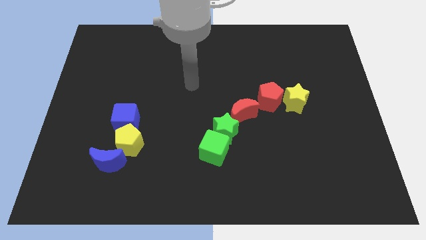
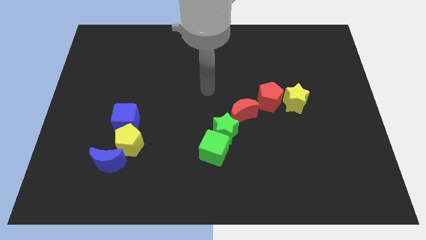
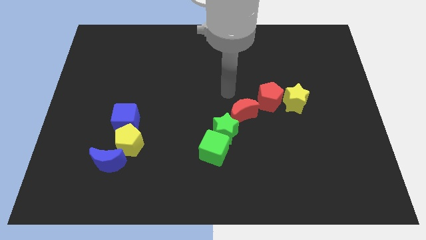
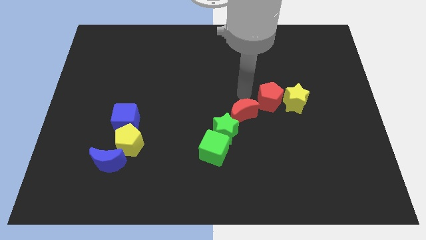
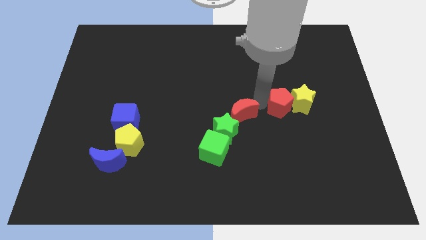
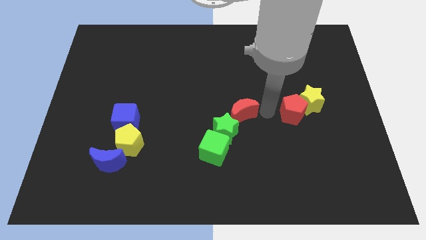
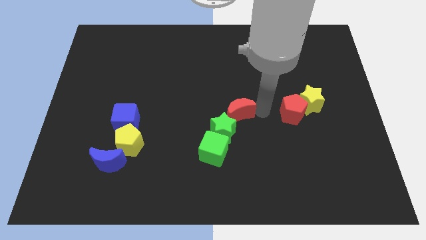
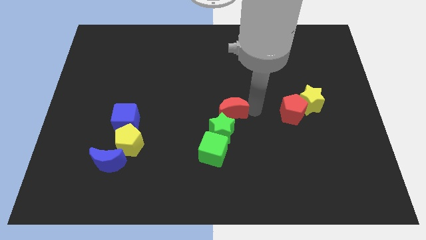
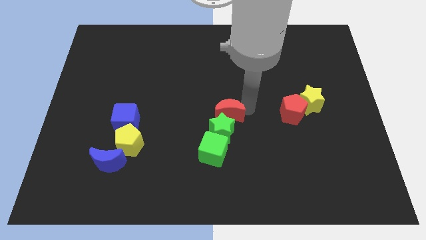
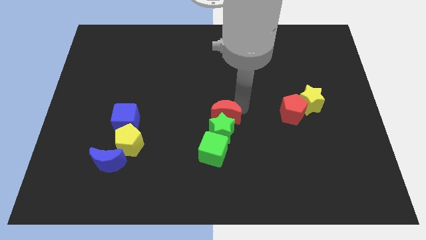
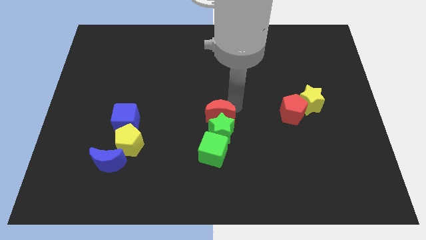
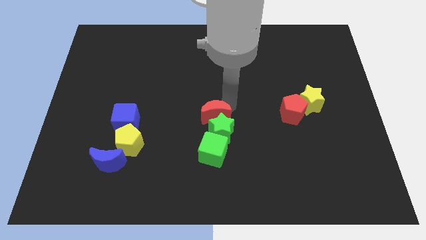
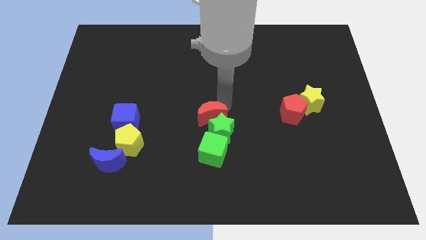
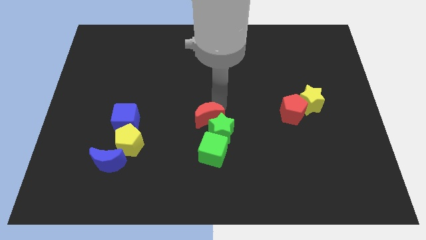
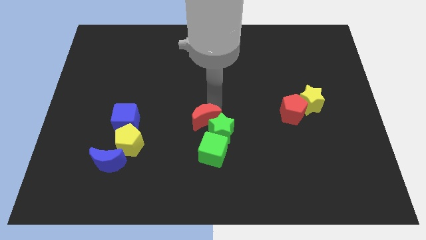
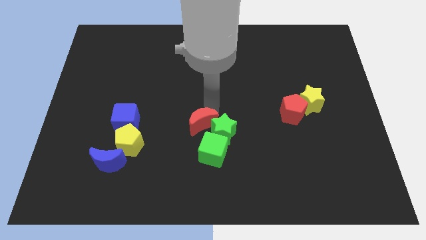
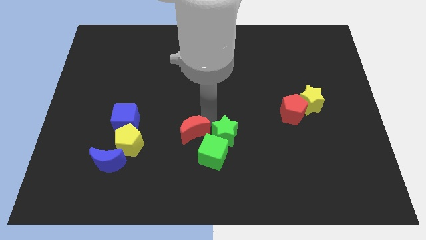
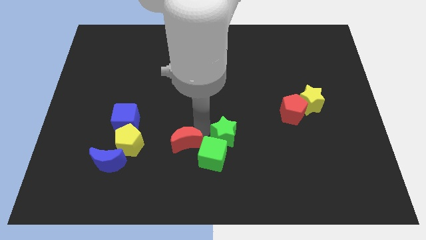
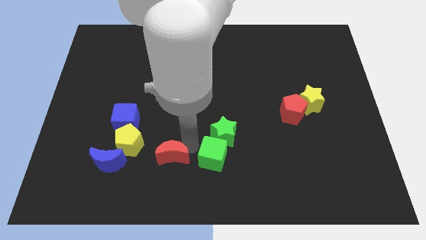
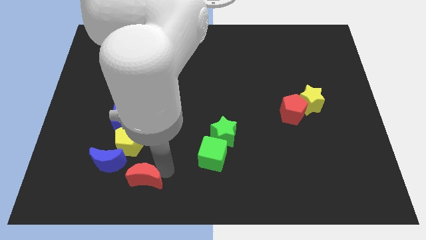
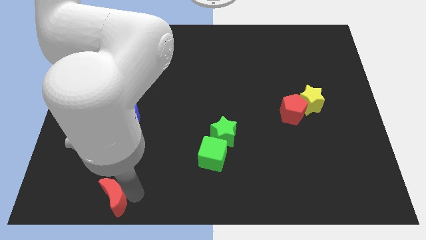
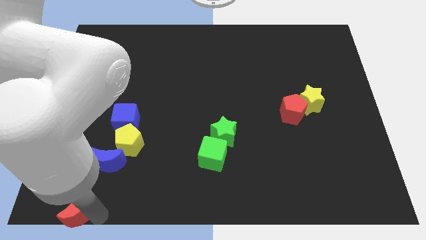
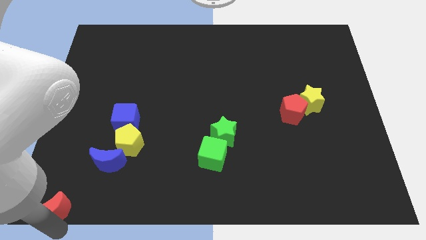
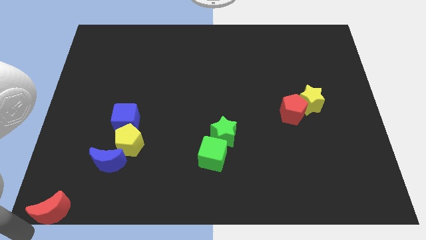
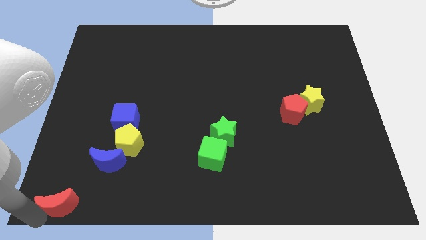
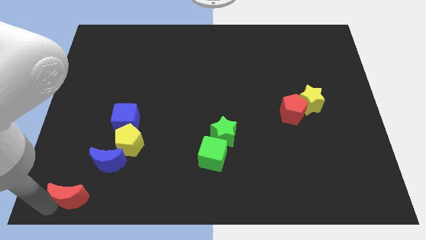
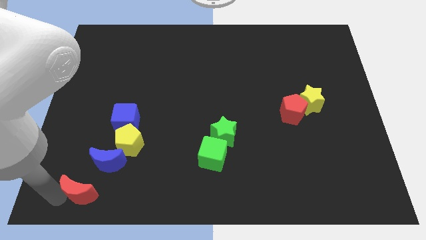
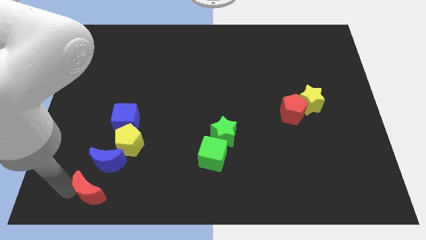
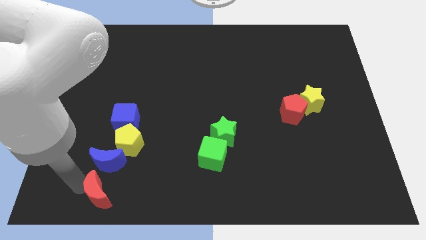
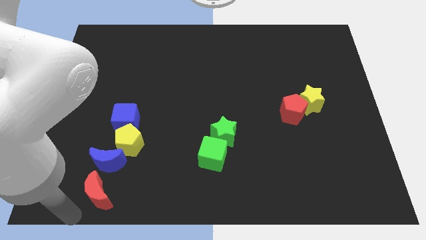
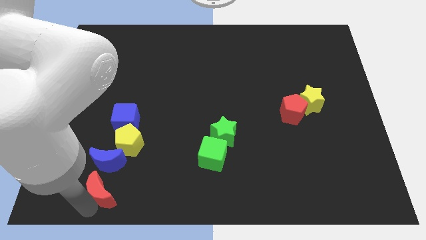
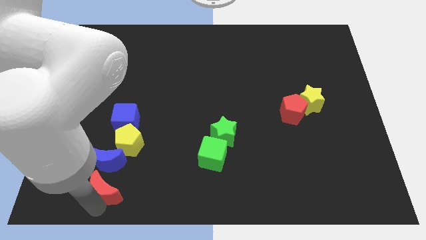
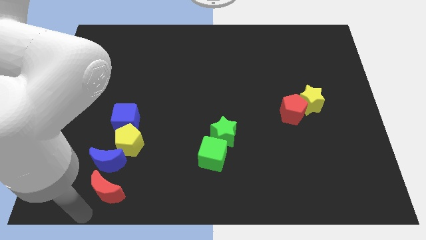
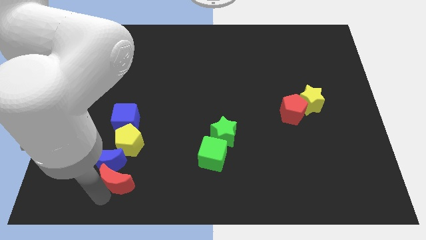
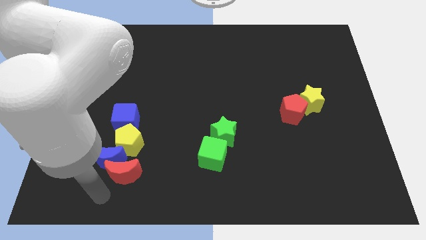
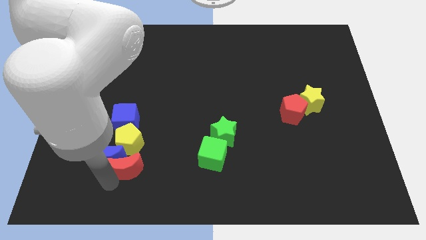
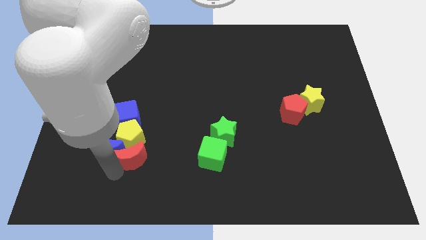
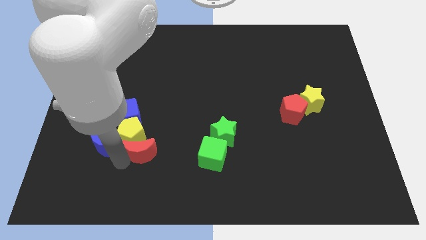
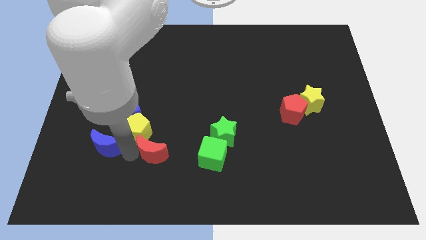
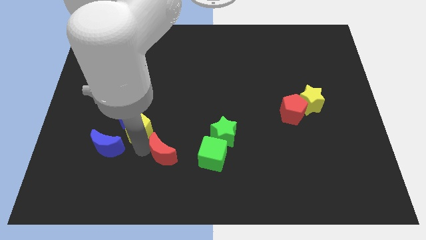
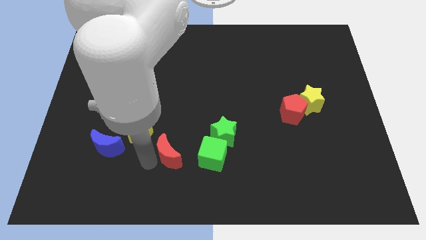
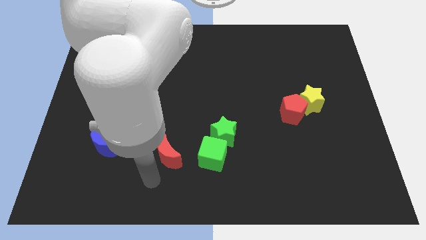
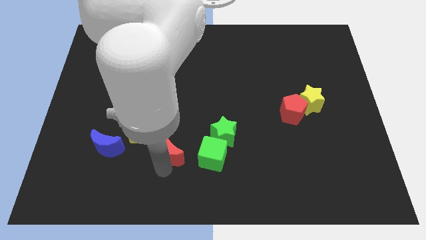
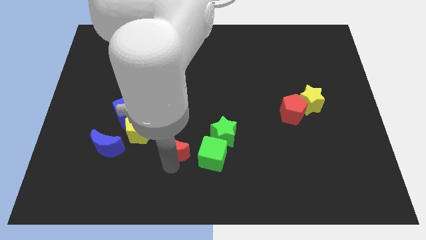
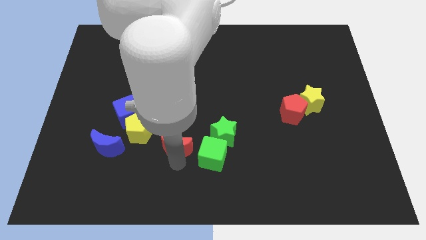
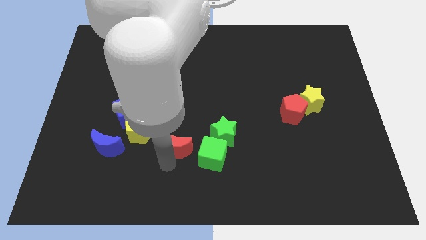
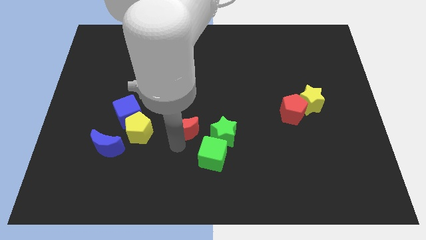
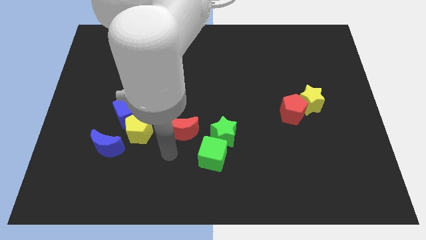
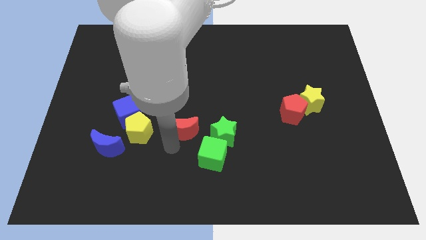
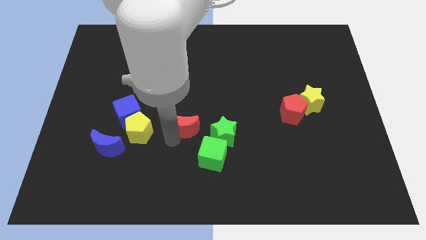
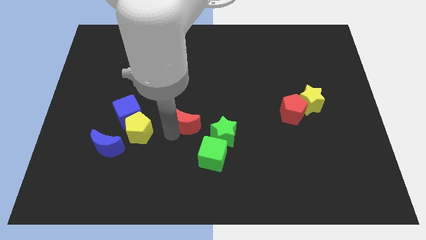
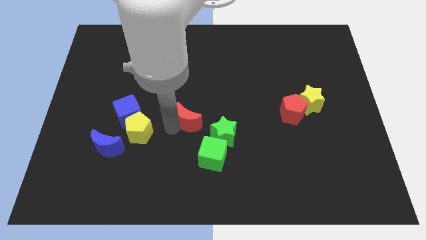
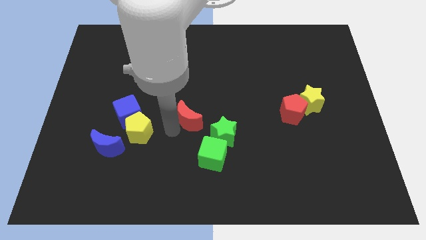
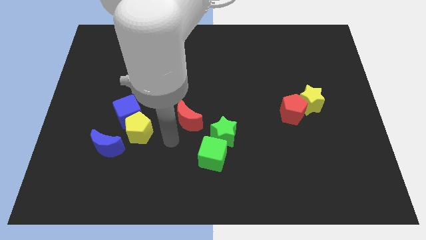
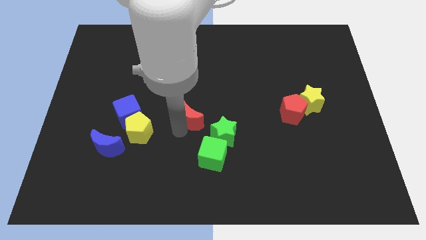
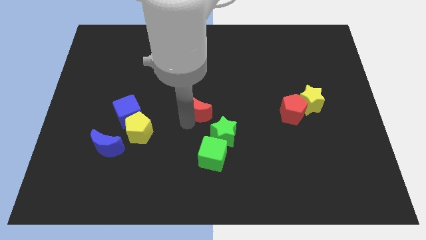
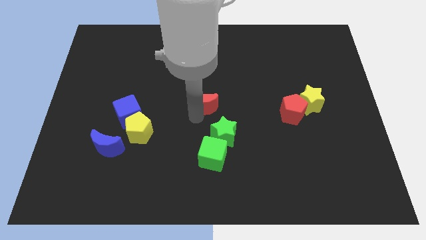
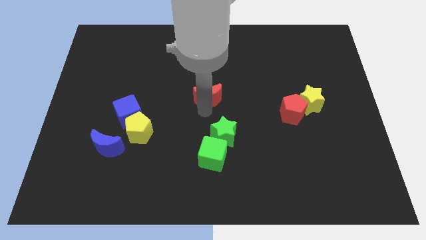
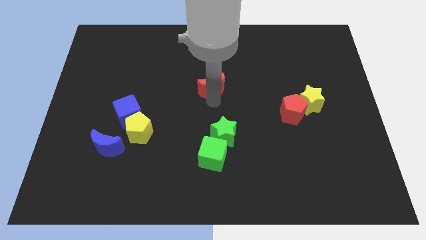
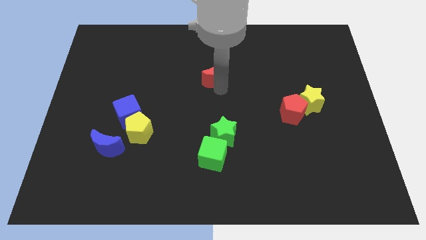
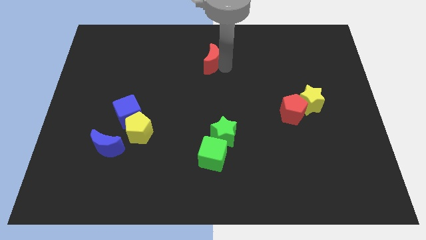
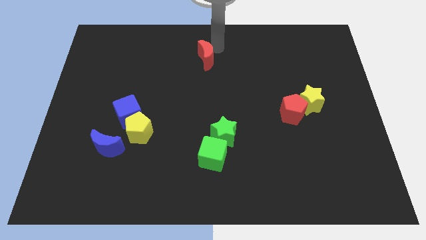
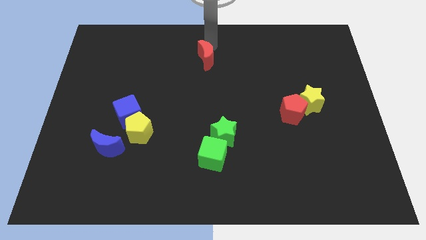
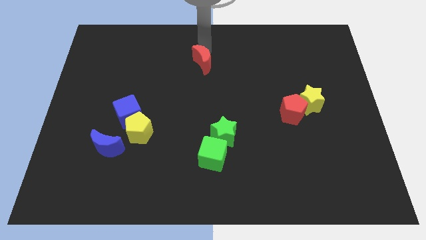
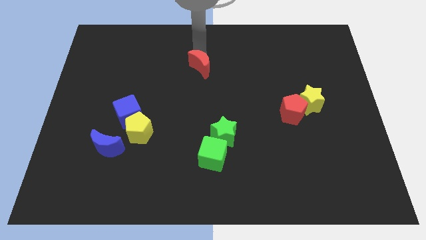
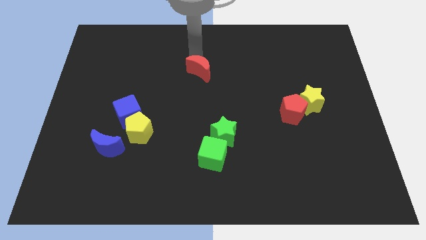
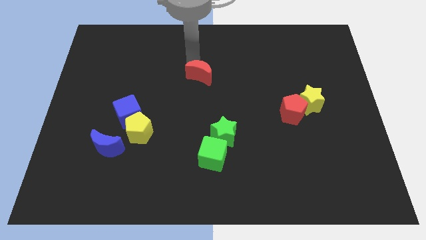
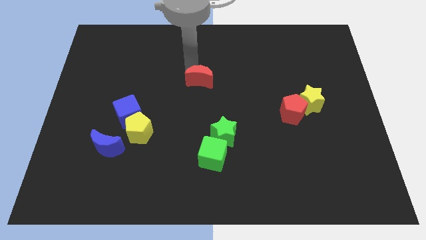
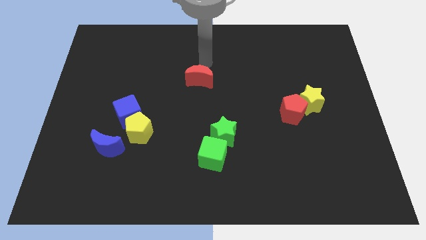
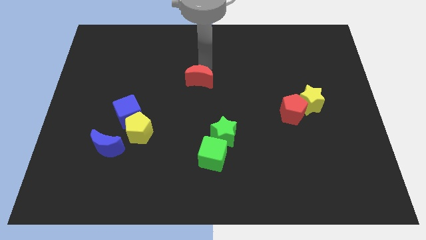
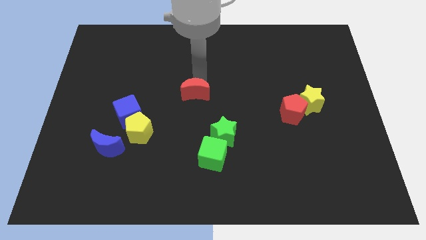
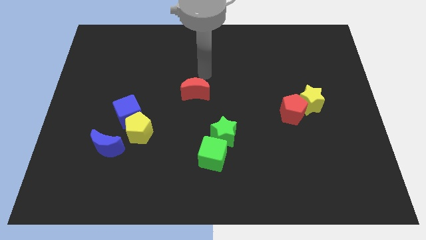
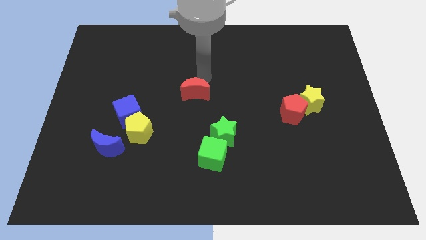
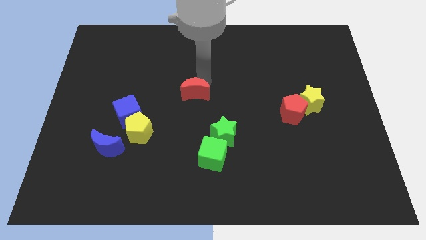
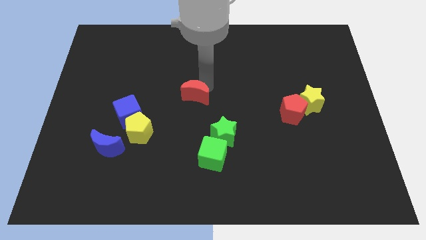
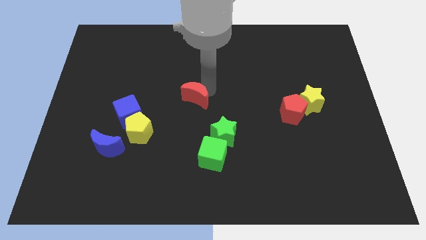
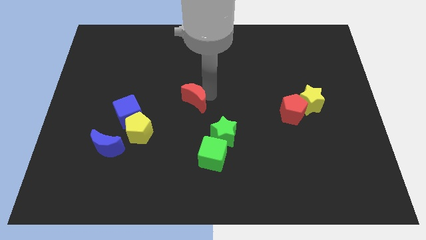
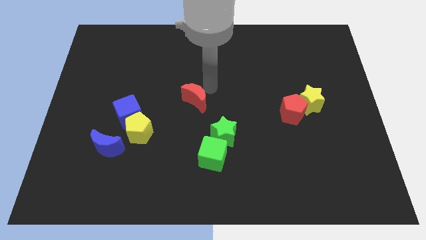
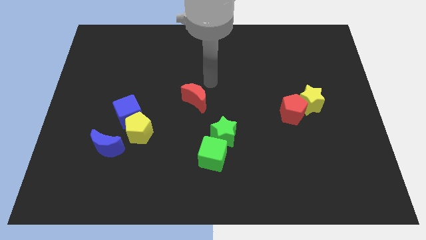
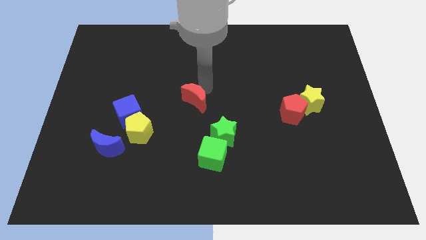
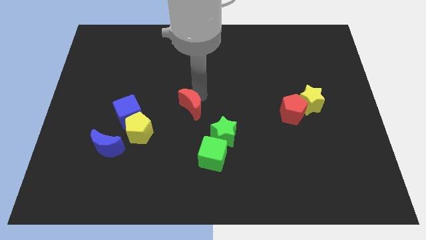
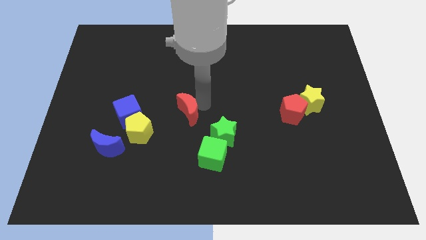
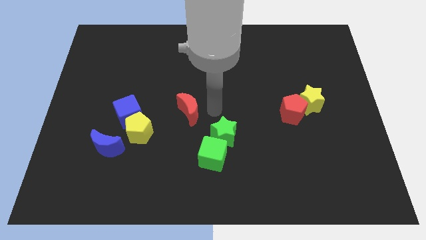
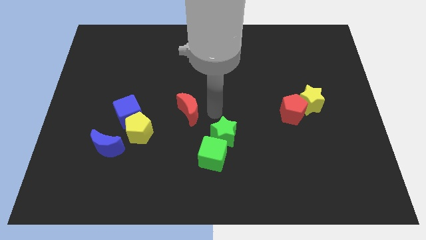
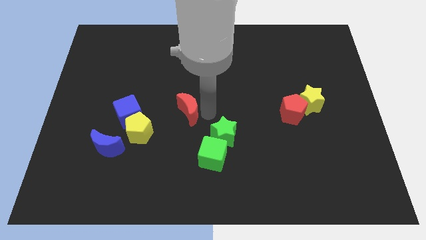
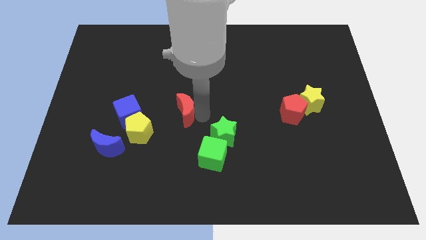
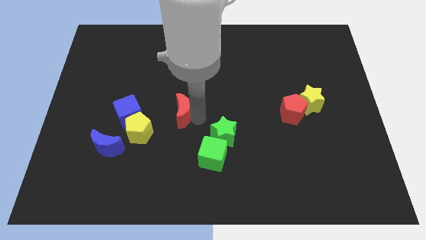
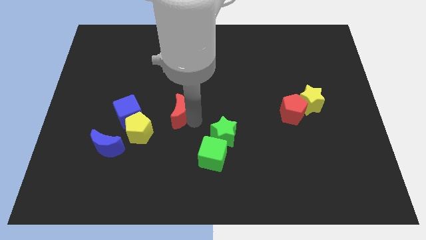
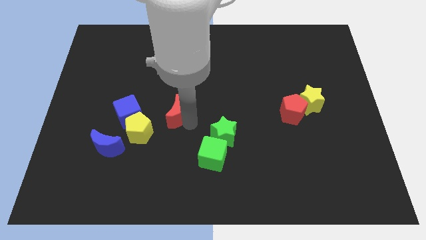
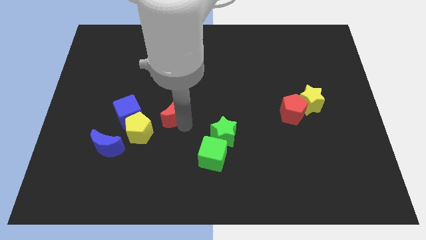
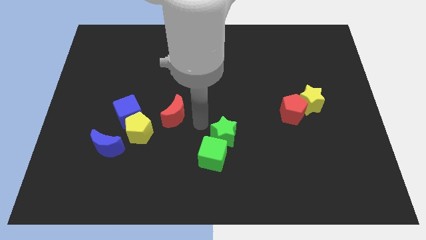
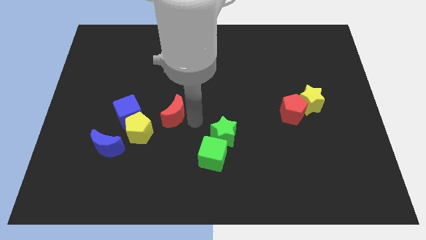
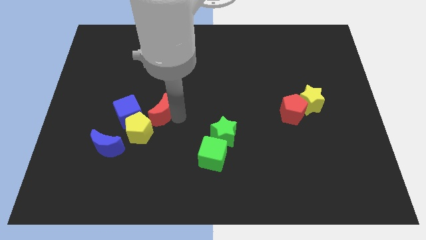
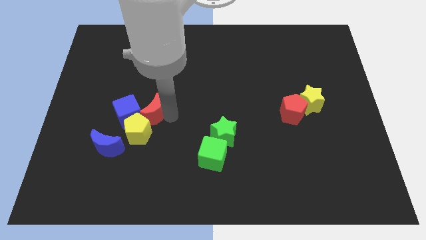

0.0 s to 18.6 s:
push the red moon to the left
